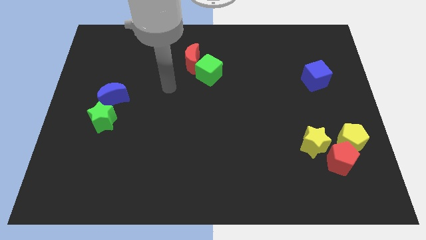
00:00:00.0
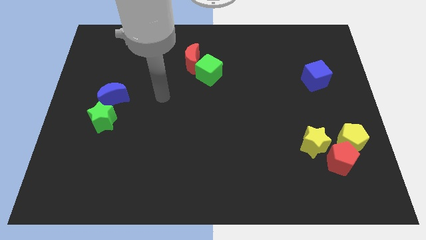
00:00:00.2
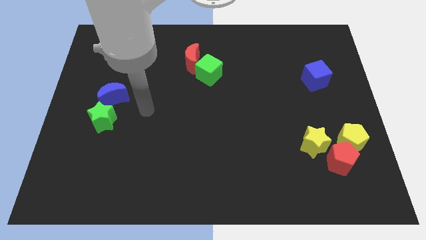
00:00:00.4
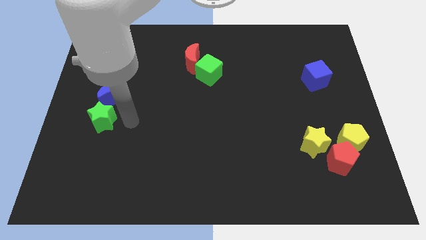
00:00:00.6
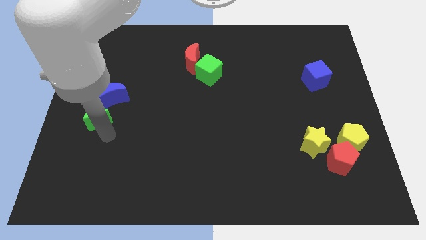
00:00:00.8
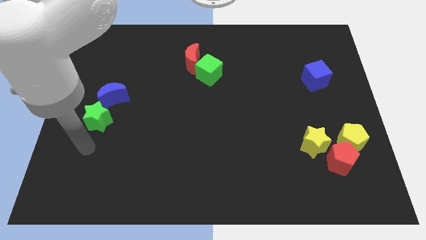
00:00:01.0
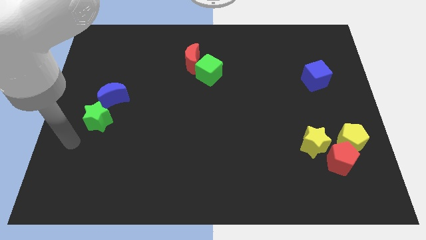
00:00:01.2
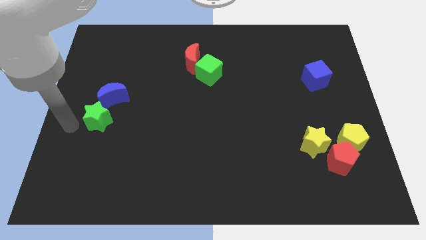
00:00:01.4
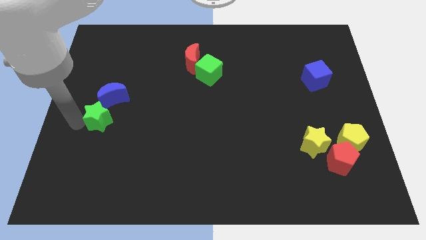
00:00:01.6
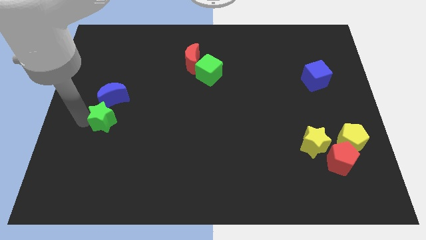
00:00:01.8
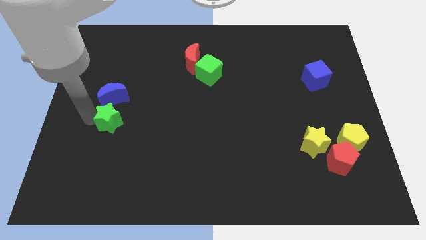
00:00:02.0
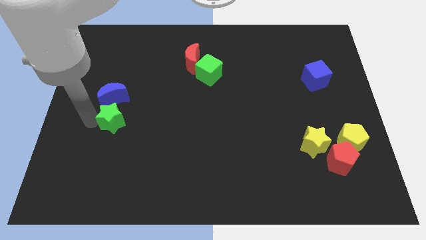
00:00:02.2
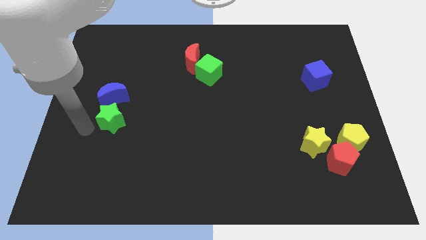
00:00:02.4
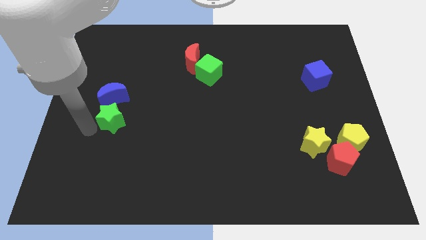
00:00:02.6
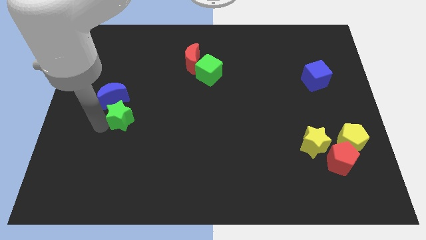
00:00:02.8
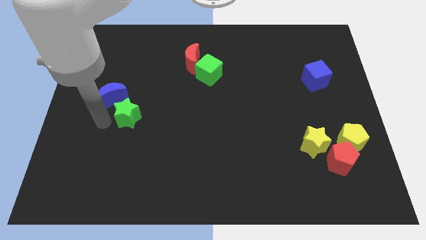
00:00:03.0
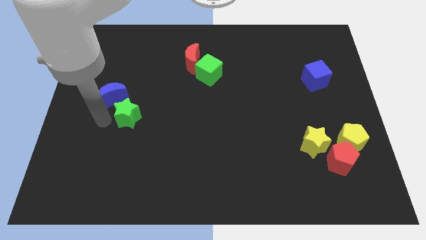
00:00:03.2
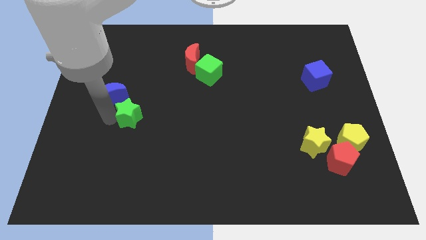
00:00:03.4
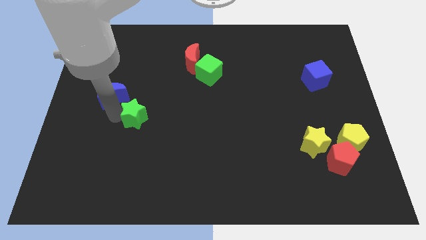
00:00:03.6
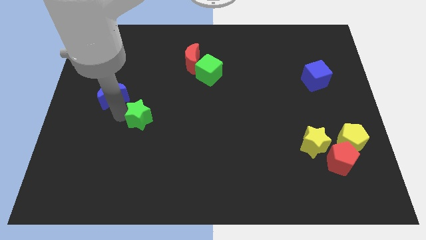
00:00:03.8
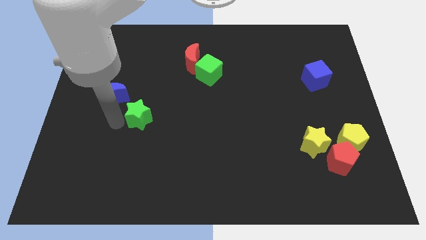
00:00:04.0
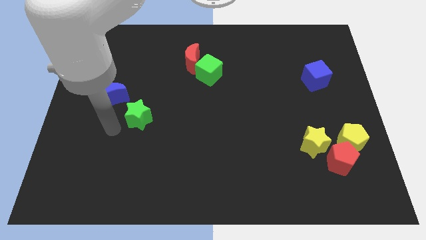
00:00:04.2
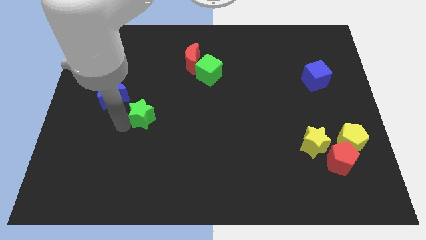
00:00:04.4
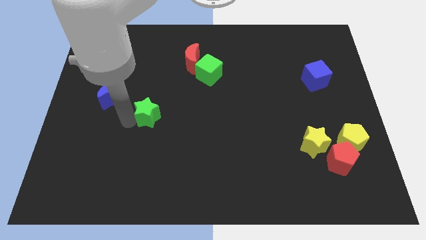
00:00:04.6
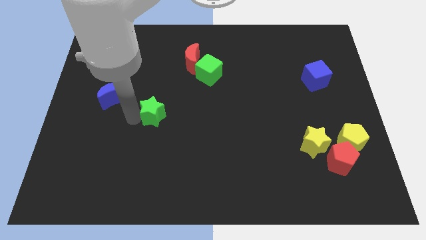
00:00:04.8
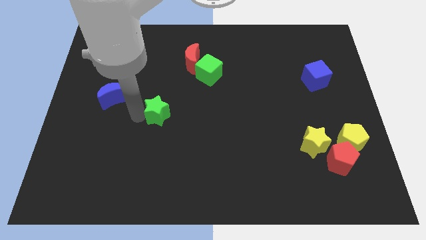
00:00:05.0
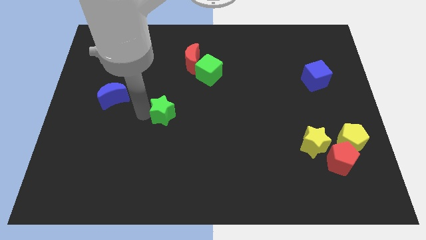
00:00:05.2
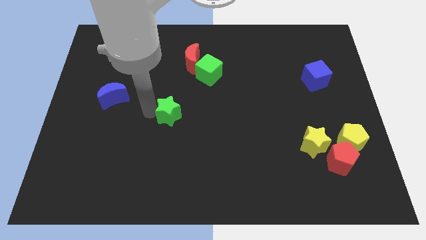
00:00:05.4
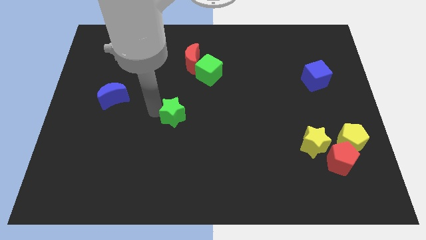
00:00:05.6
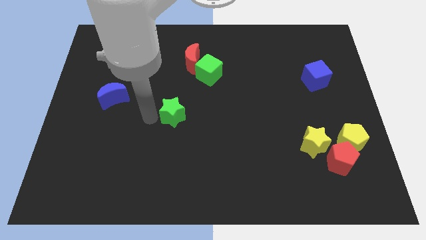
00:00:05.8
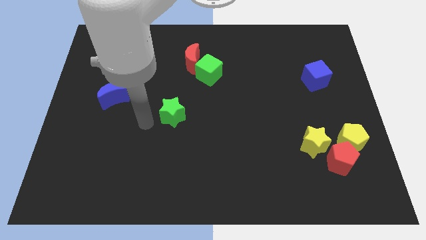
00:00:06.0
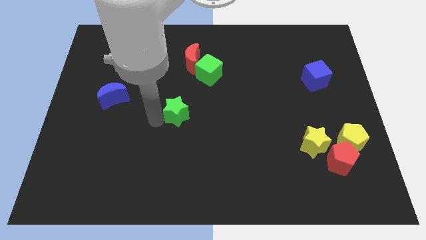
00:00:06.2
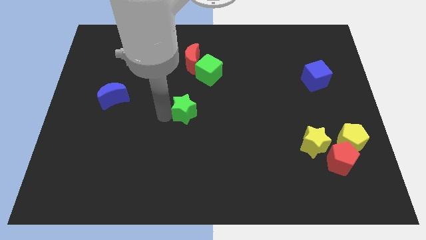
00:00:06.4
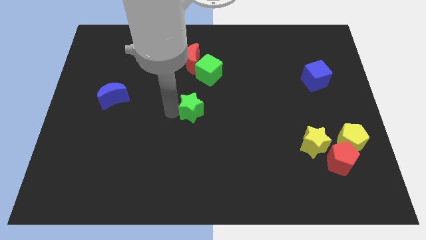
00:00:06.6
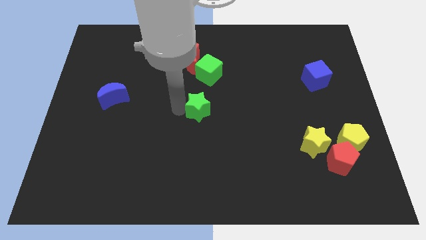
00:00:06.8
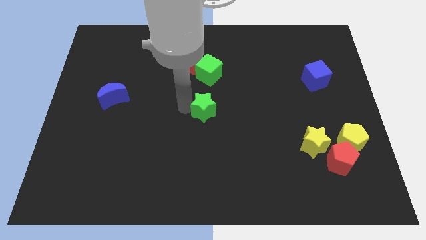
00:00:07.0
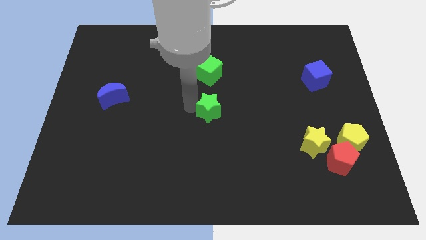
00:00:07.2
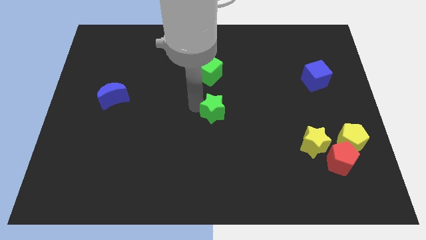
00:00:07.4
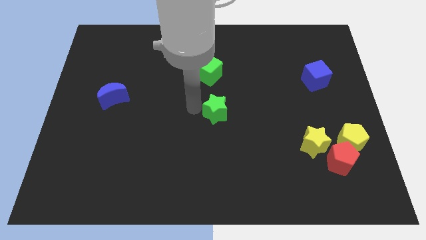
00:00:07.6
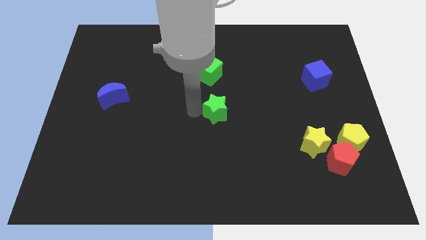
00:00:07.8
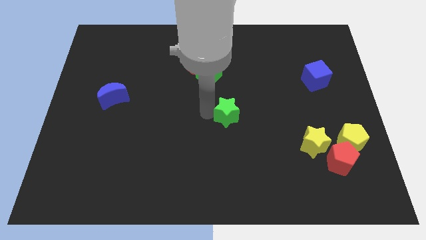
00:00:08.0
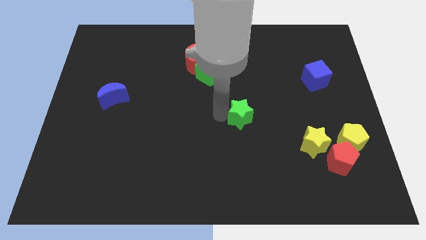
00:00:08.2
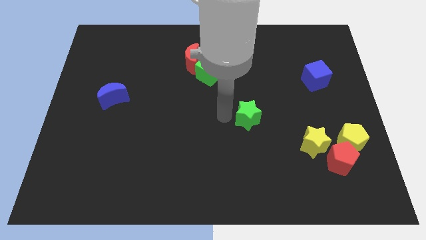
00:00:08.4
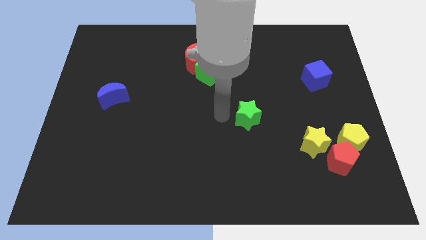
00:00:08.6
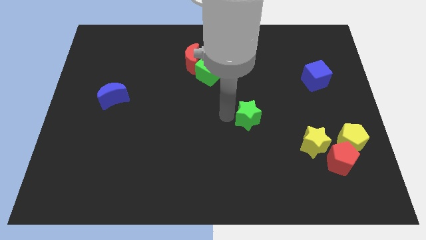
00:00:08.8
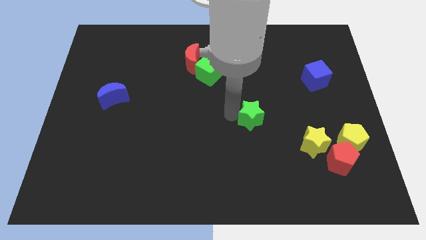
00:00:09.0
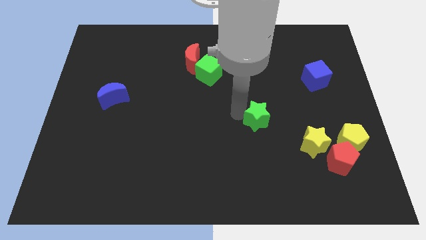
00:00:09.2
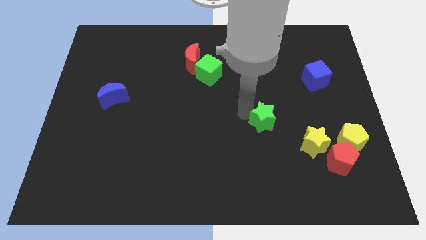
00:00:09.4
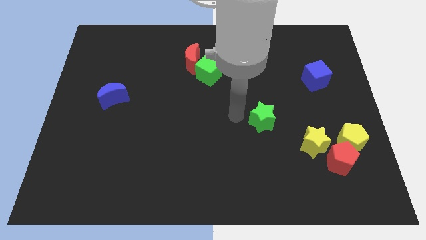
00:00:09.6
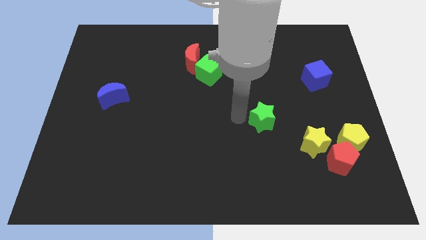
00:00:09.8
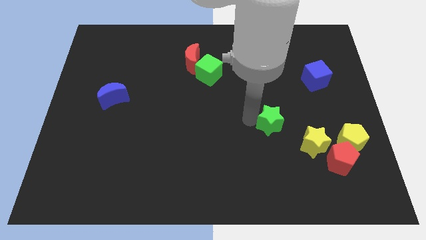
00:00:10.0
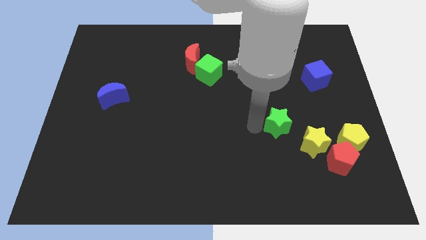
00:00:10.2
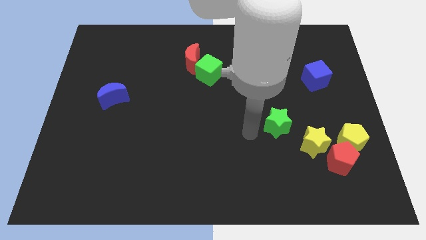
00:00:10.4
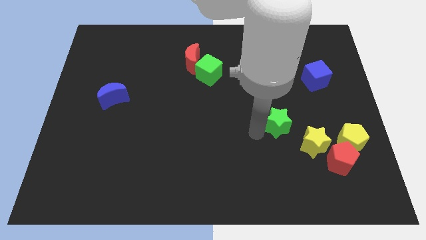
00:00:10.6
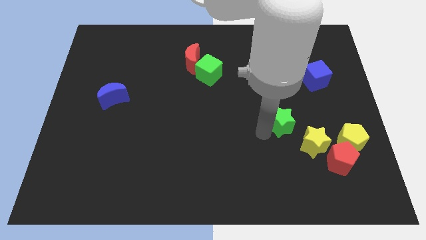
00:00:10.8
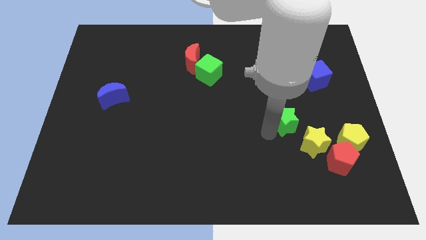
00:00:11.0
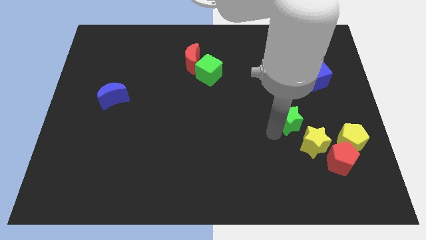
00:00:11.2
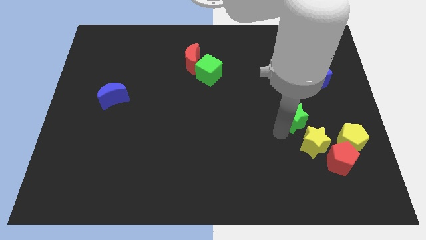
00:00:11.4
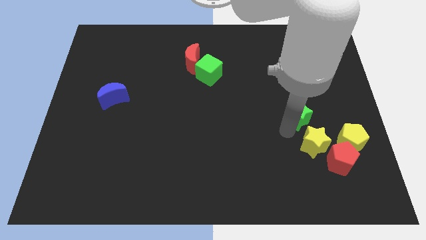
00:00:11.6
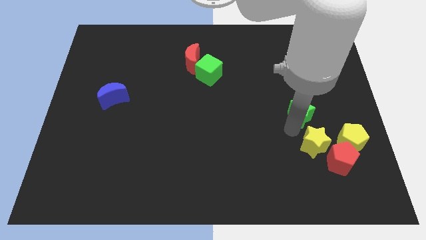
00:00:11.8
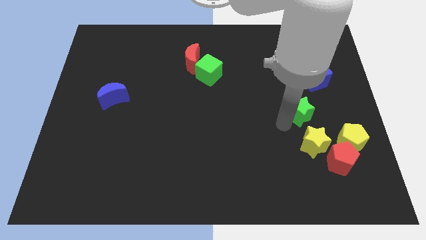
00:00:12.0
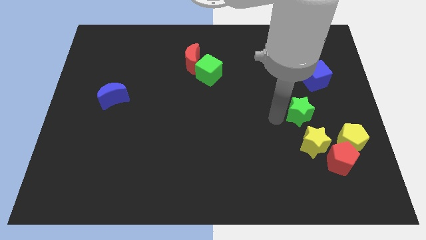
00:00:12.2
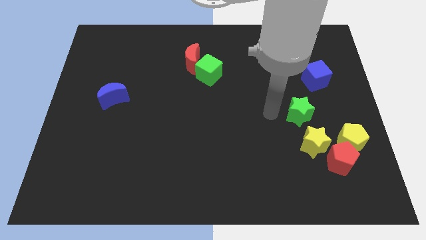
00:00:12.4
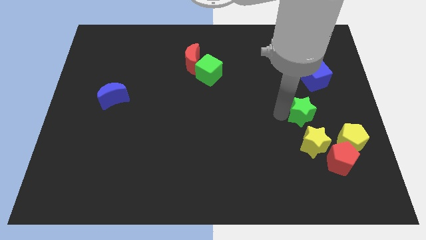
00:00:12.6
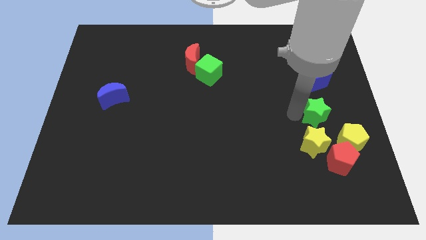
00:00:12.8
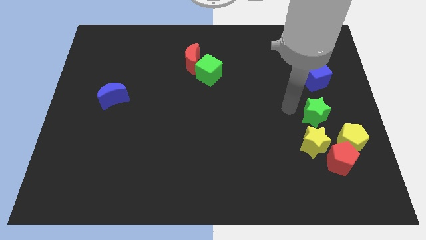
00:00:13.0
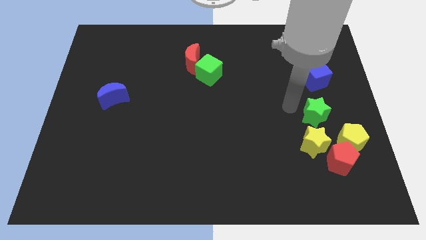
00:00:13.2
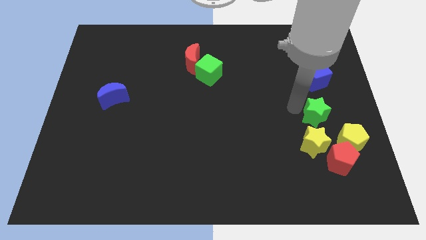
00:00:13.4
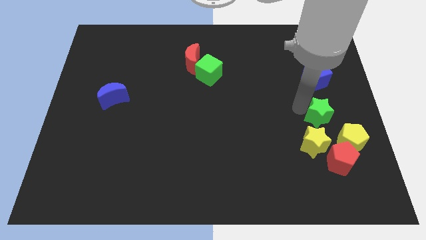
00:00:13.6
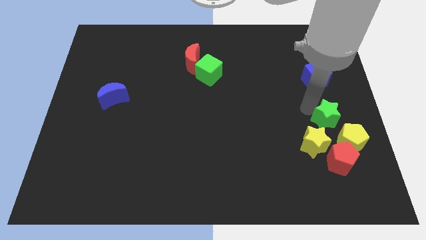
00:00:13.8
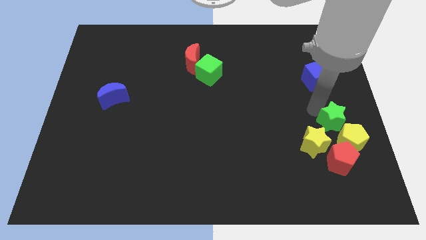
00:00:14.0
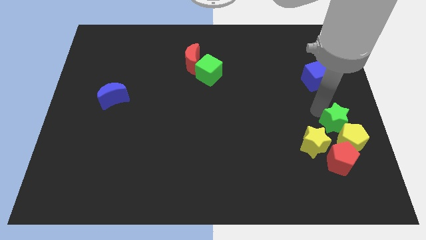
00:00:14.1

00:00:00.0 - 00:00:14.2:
put the green star to the yellow pentagon
